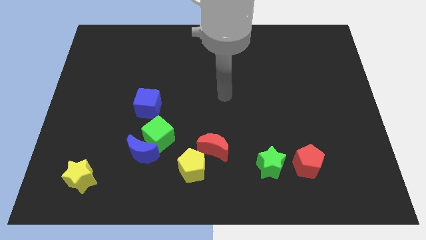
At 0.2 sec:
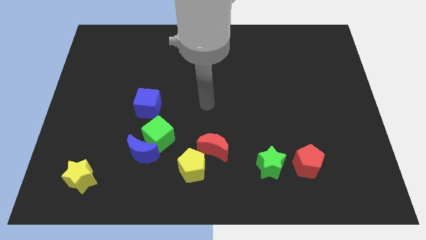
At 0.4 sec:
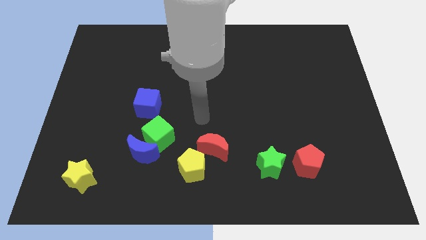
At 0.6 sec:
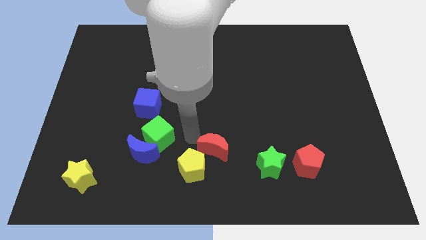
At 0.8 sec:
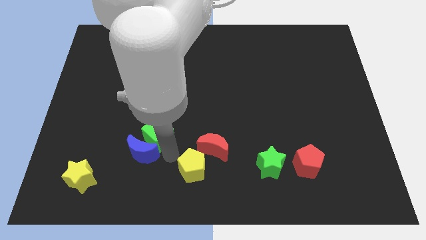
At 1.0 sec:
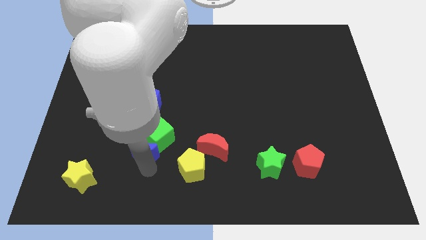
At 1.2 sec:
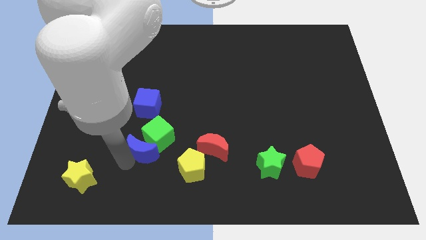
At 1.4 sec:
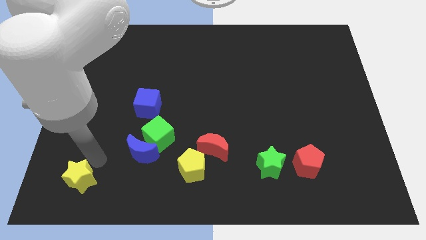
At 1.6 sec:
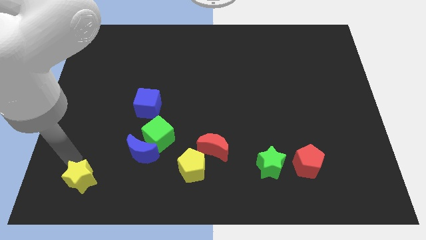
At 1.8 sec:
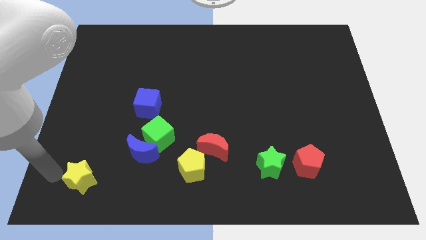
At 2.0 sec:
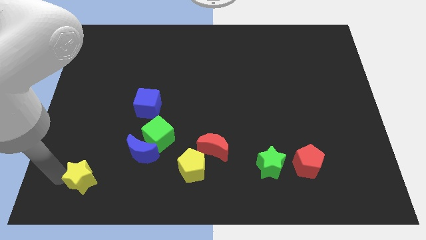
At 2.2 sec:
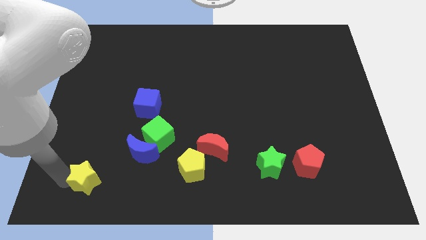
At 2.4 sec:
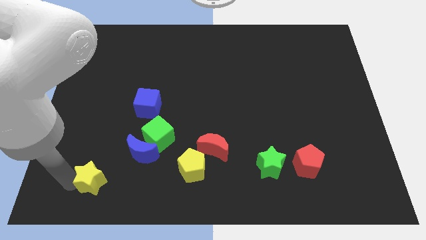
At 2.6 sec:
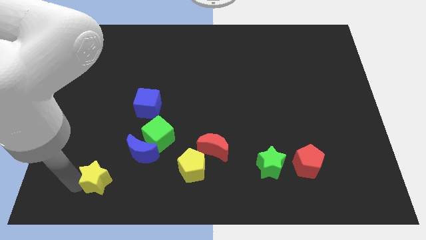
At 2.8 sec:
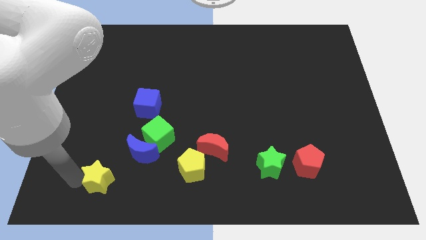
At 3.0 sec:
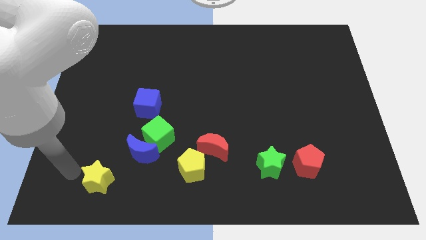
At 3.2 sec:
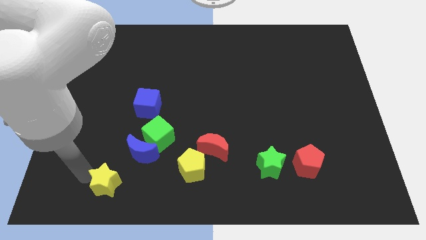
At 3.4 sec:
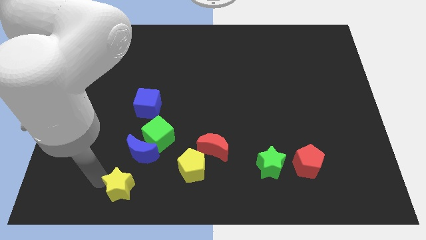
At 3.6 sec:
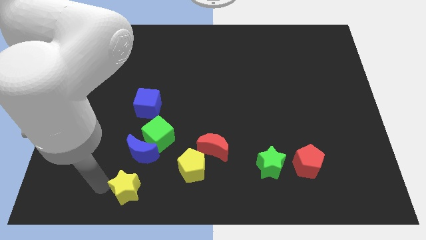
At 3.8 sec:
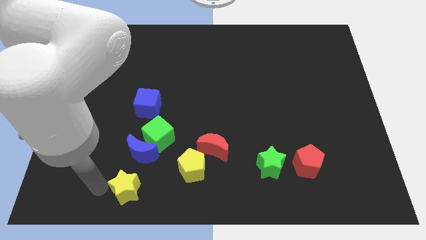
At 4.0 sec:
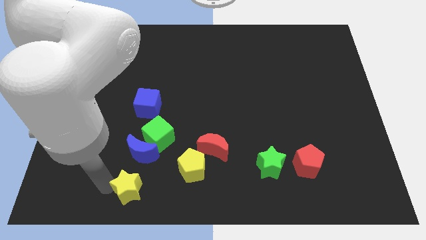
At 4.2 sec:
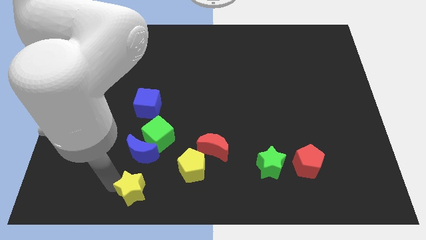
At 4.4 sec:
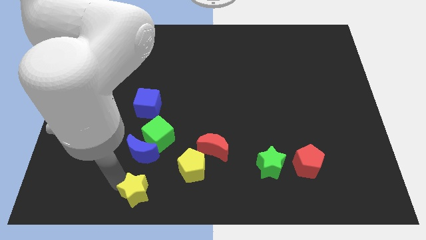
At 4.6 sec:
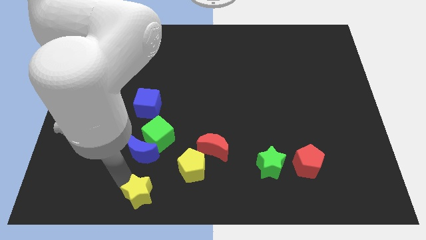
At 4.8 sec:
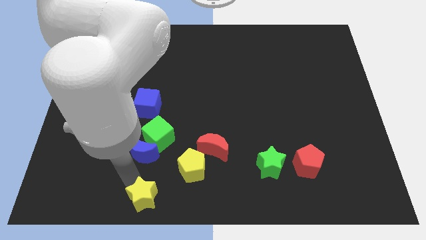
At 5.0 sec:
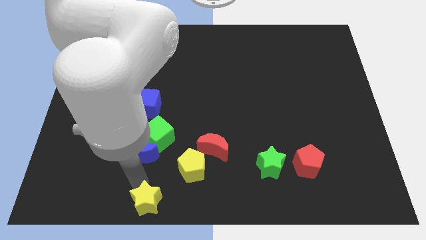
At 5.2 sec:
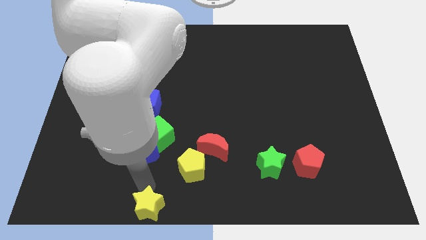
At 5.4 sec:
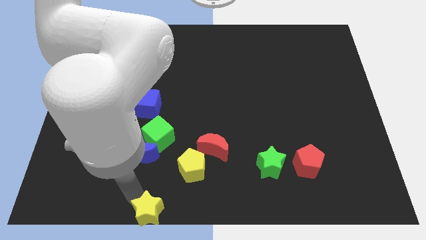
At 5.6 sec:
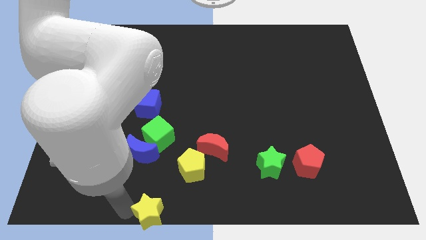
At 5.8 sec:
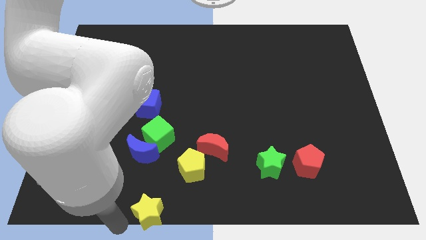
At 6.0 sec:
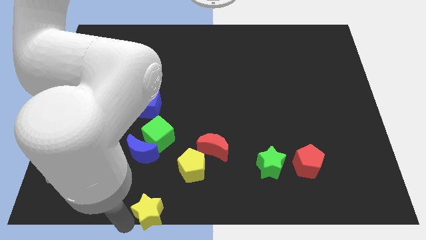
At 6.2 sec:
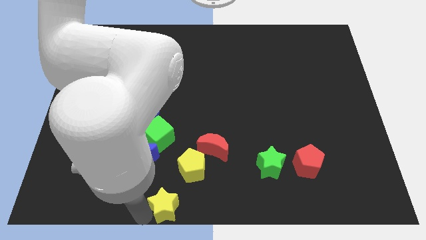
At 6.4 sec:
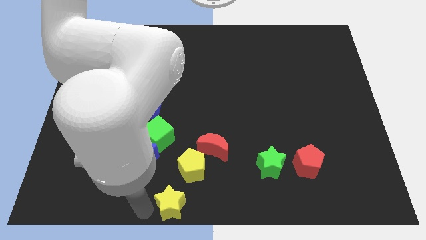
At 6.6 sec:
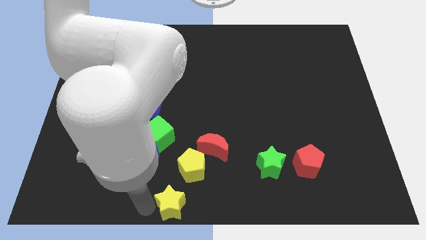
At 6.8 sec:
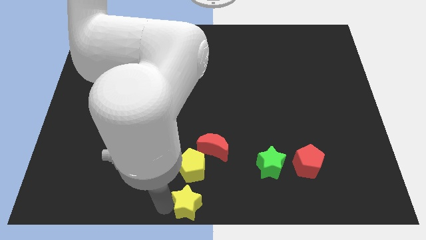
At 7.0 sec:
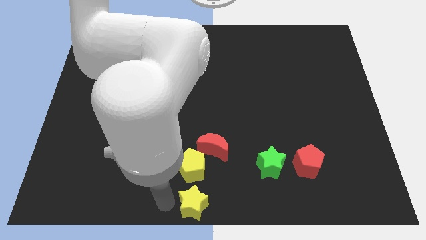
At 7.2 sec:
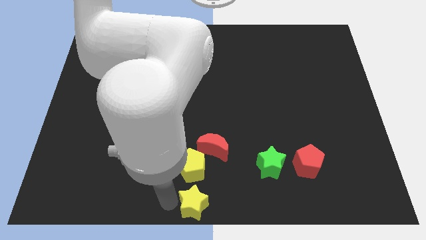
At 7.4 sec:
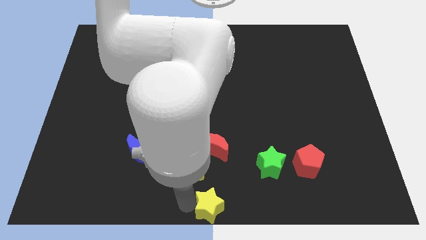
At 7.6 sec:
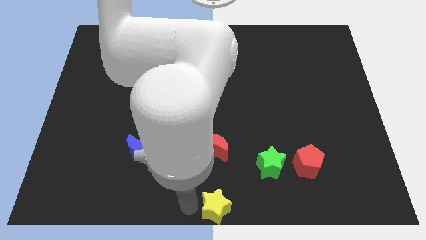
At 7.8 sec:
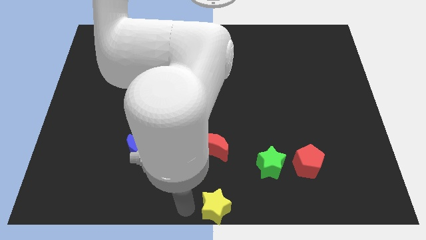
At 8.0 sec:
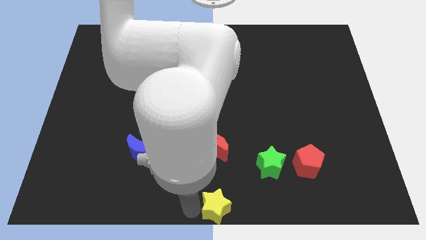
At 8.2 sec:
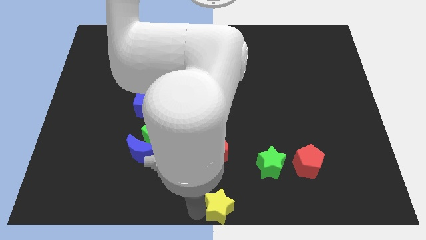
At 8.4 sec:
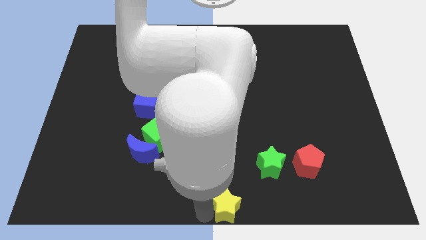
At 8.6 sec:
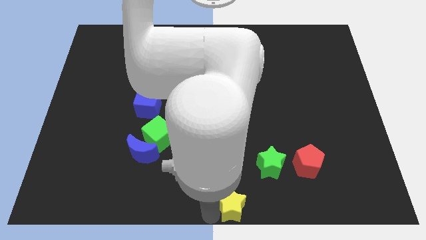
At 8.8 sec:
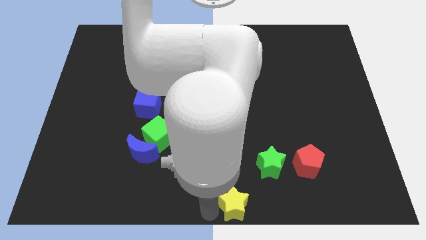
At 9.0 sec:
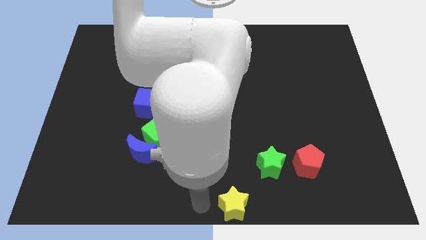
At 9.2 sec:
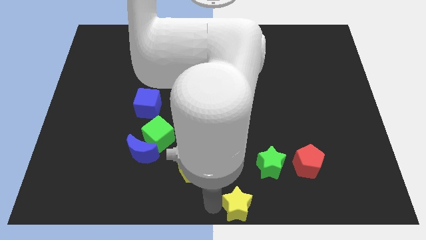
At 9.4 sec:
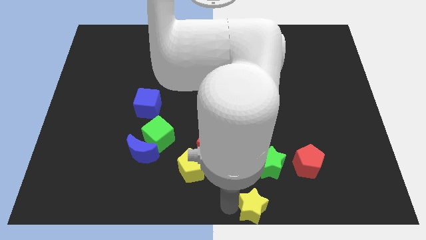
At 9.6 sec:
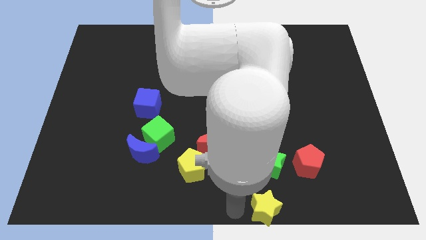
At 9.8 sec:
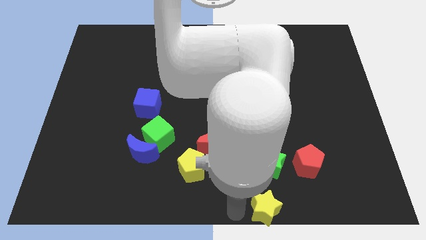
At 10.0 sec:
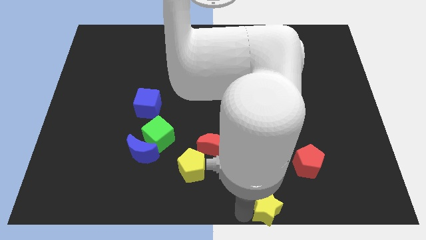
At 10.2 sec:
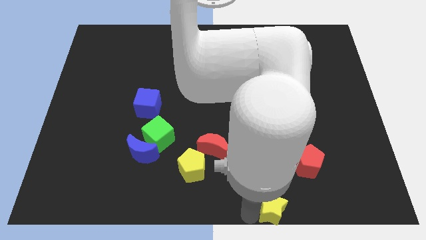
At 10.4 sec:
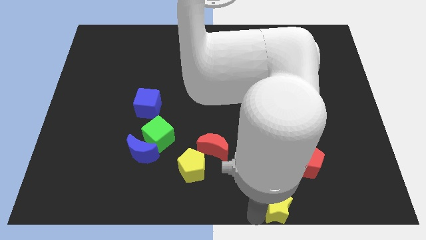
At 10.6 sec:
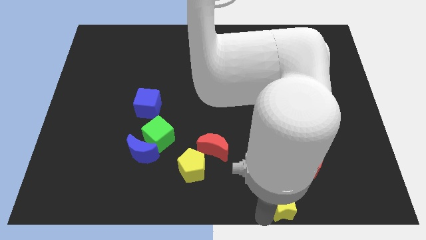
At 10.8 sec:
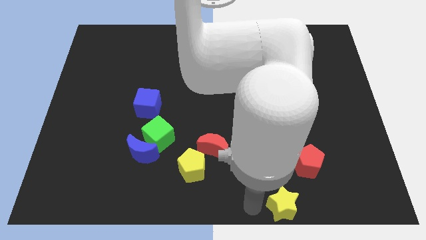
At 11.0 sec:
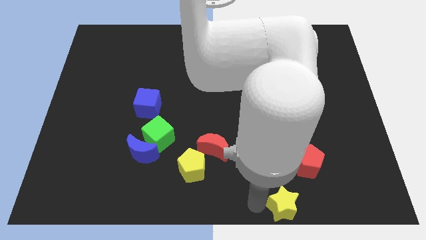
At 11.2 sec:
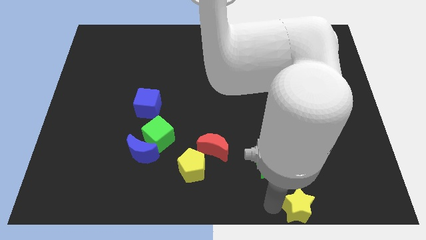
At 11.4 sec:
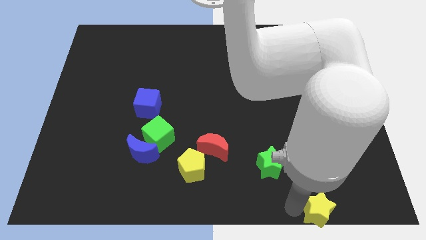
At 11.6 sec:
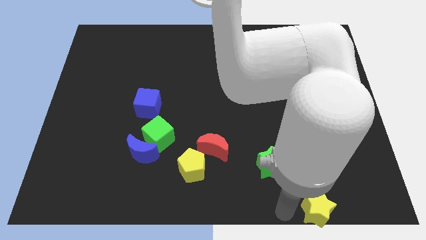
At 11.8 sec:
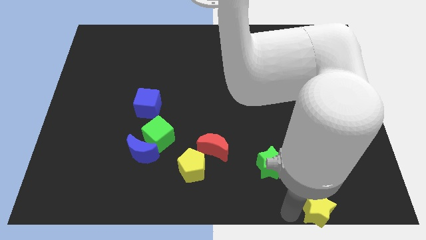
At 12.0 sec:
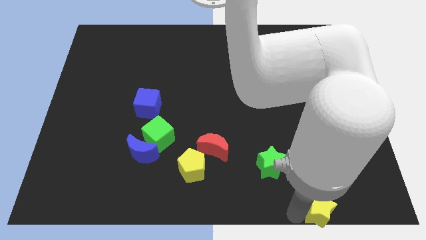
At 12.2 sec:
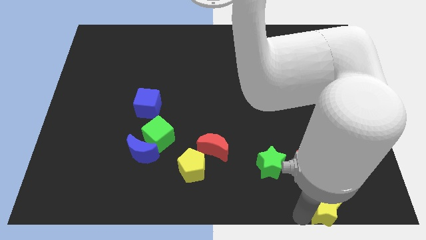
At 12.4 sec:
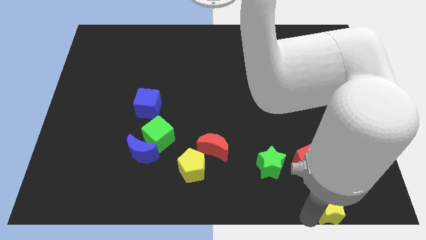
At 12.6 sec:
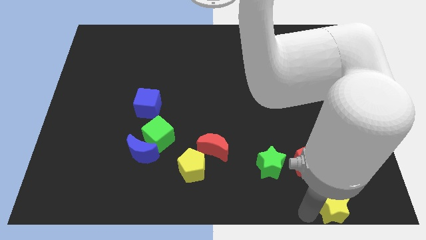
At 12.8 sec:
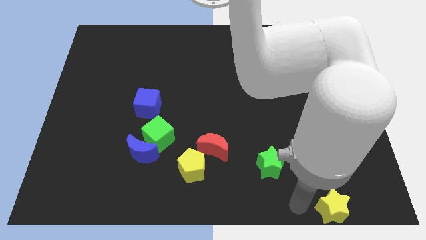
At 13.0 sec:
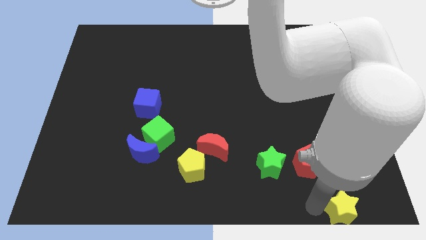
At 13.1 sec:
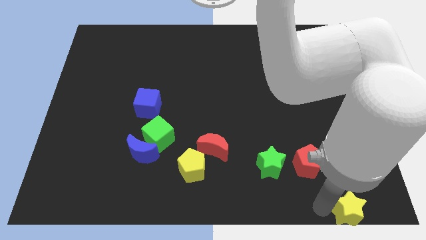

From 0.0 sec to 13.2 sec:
put the yellow star to the bottom right of the board

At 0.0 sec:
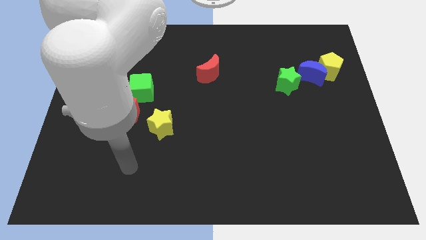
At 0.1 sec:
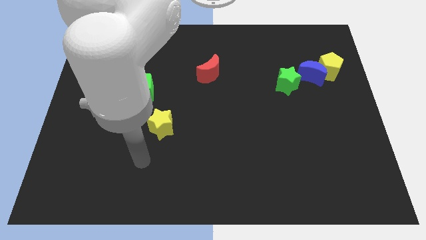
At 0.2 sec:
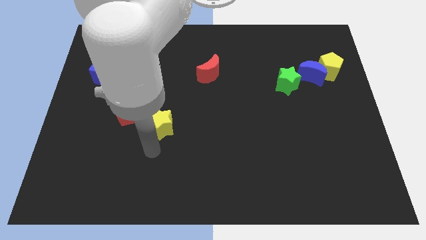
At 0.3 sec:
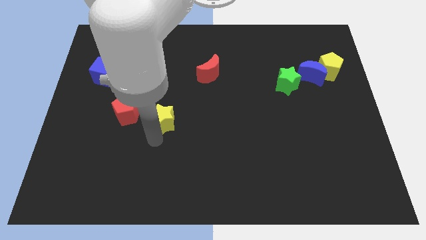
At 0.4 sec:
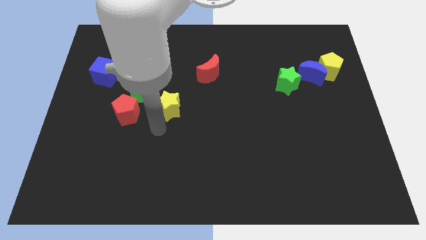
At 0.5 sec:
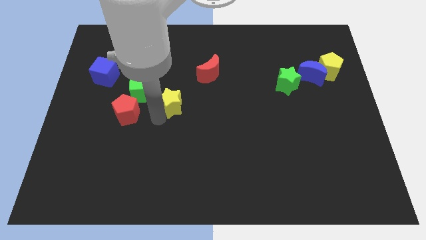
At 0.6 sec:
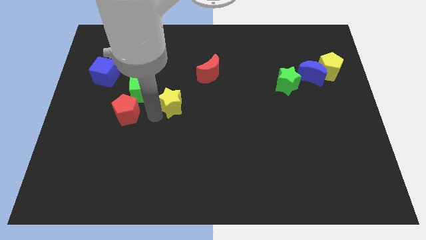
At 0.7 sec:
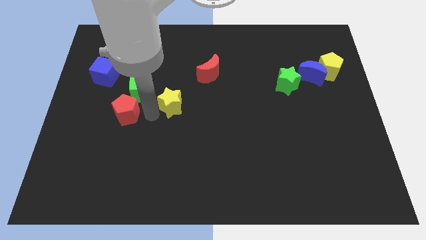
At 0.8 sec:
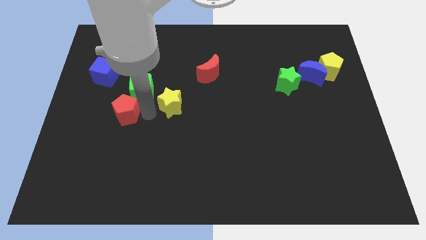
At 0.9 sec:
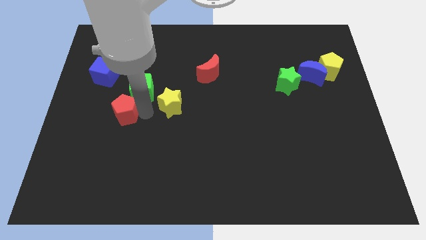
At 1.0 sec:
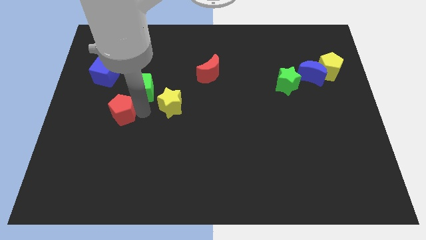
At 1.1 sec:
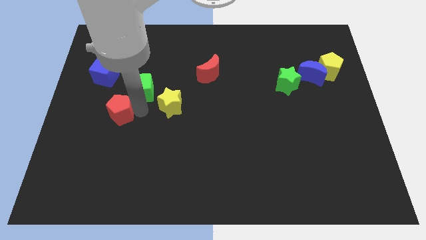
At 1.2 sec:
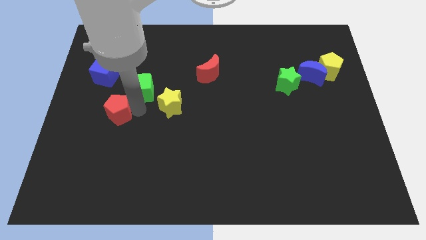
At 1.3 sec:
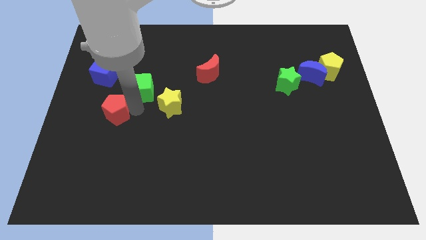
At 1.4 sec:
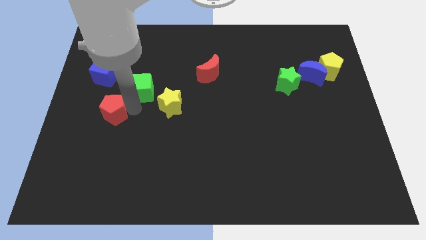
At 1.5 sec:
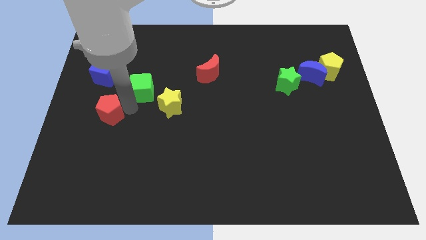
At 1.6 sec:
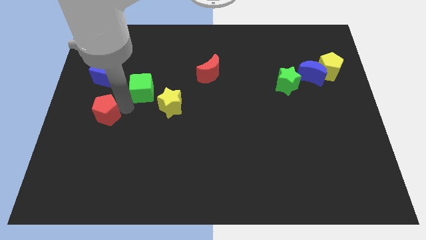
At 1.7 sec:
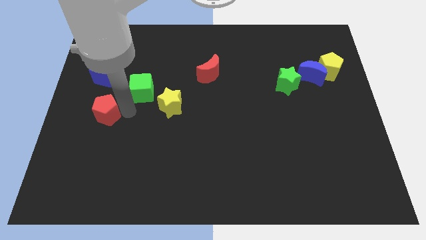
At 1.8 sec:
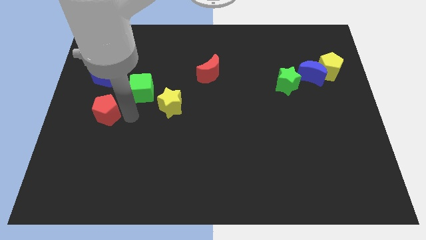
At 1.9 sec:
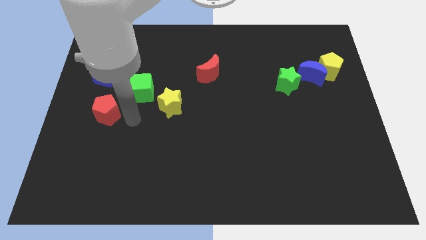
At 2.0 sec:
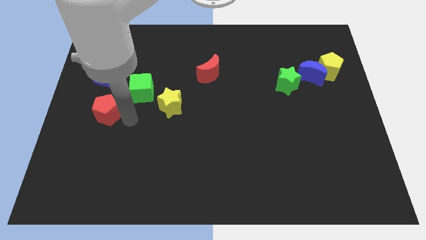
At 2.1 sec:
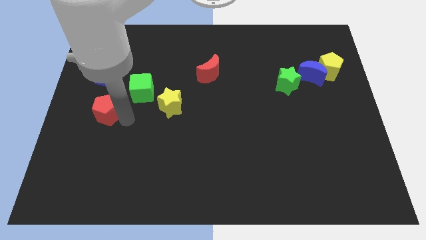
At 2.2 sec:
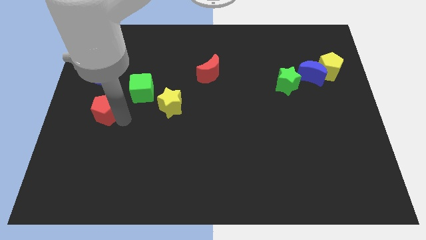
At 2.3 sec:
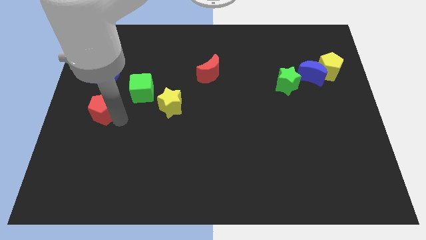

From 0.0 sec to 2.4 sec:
put the red pentagon to the left side
